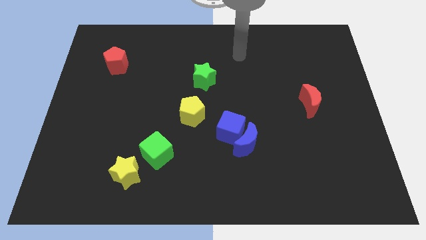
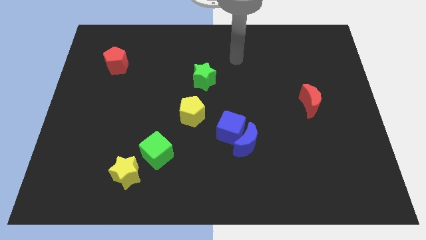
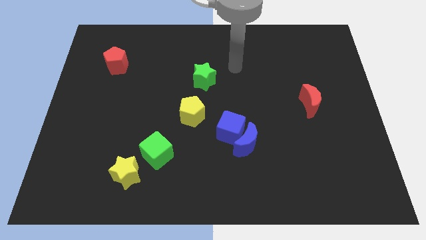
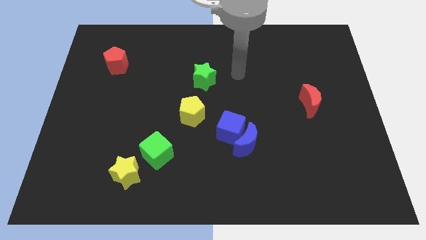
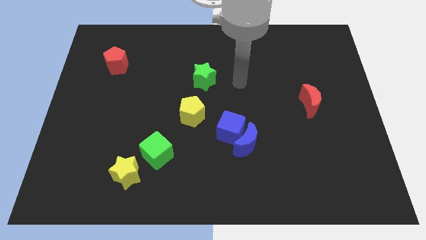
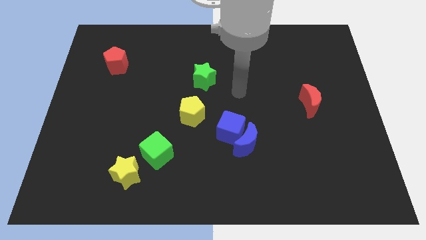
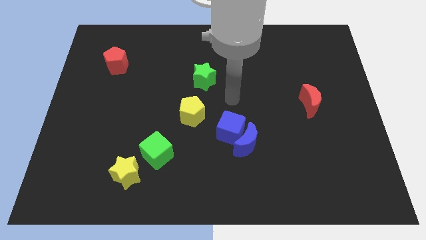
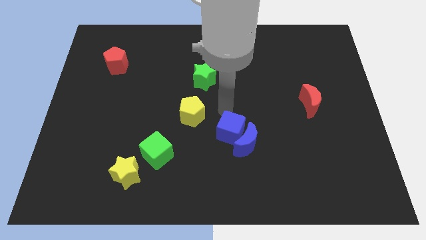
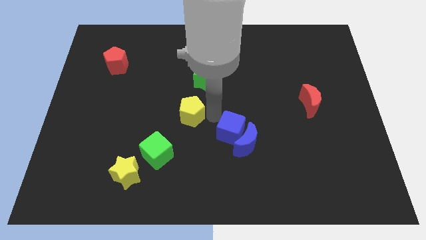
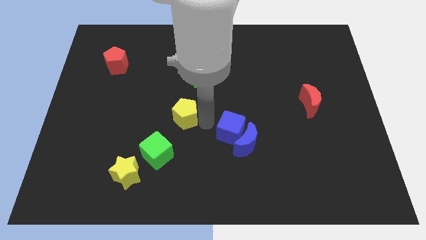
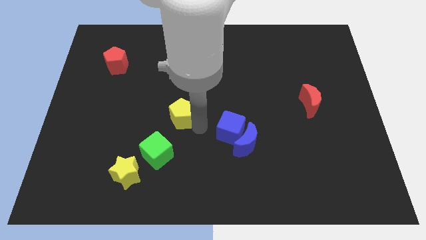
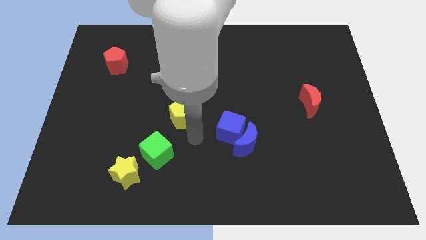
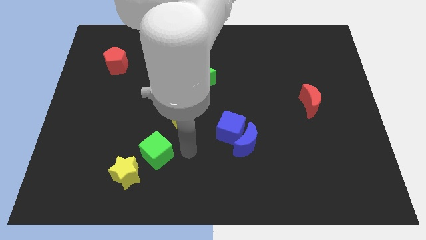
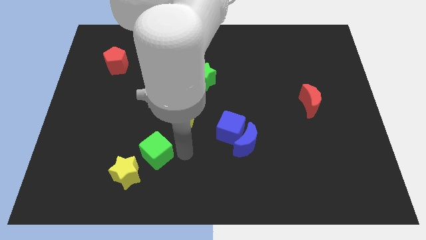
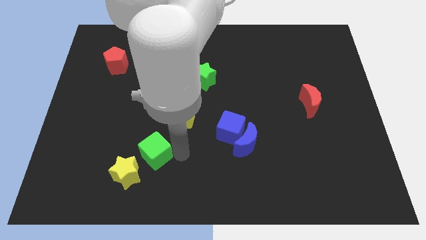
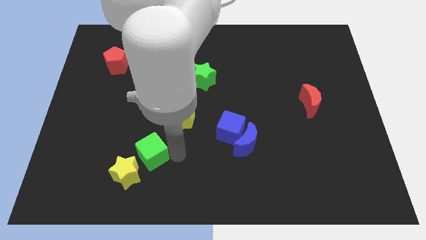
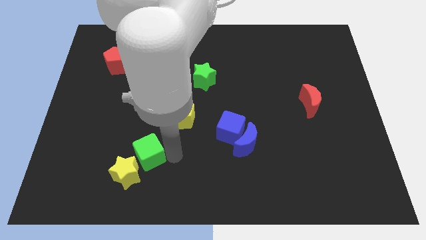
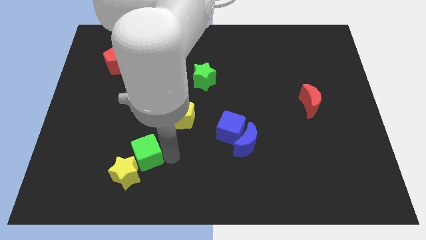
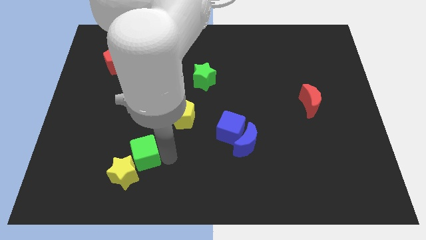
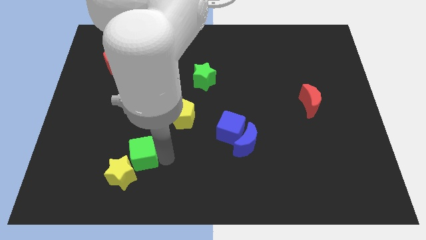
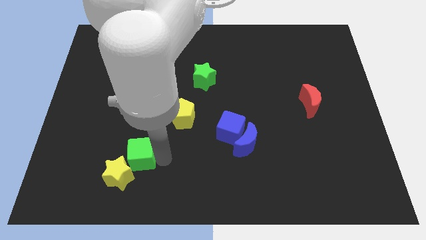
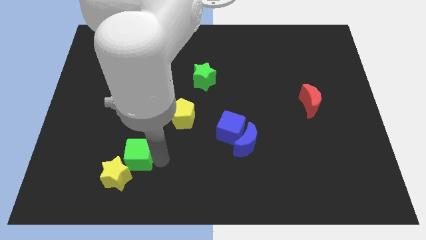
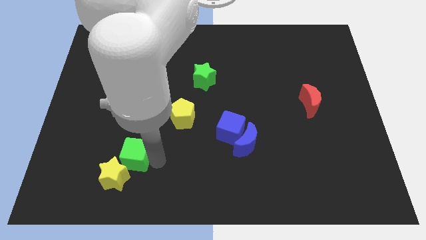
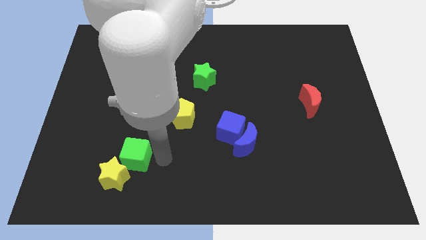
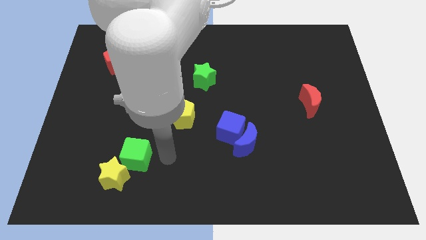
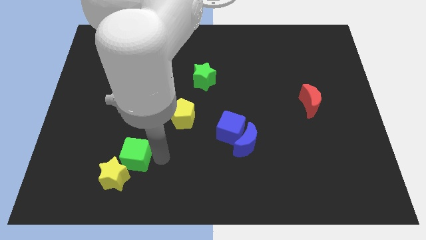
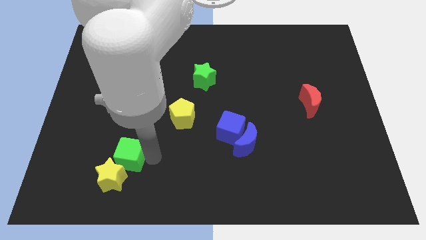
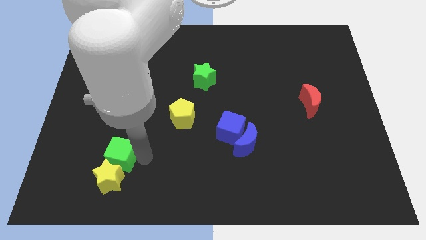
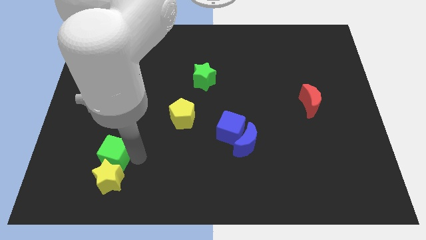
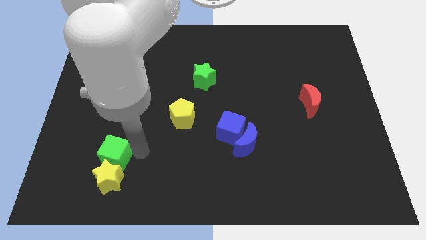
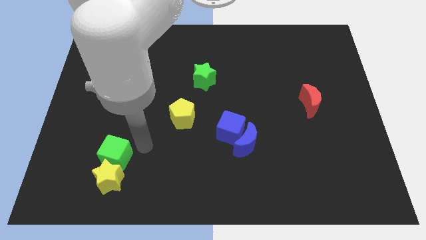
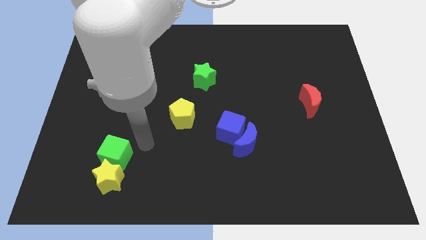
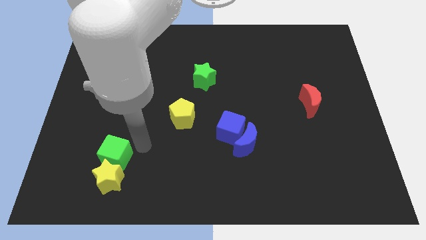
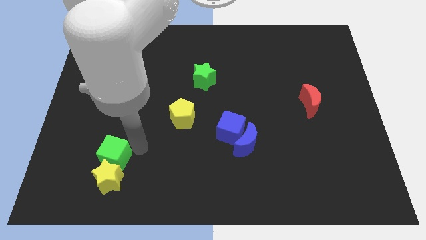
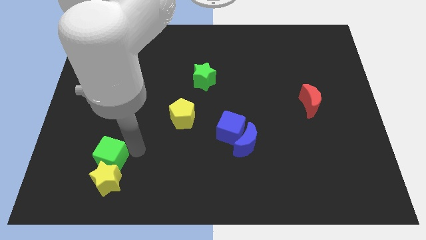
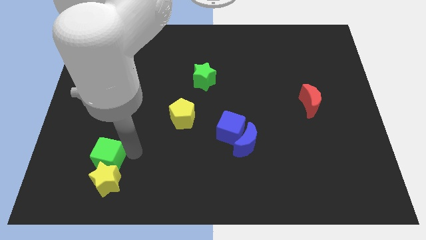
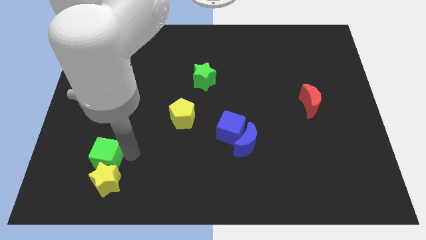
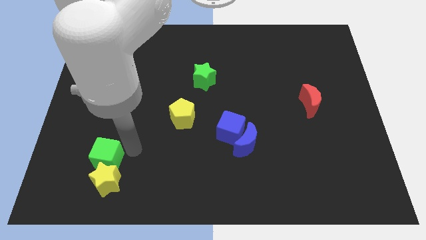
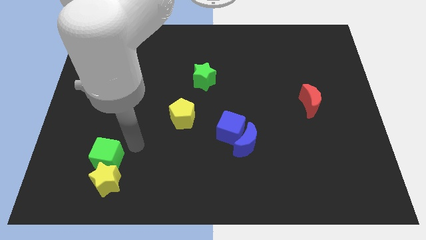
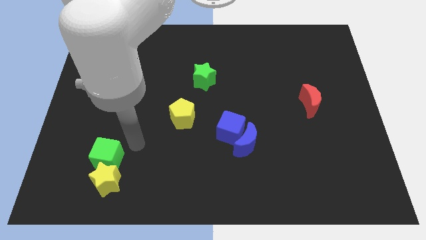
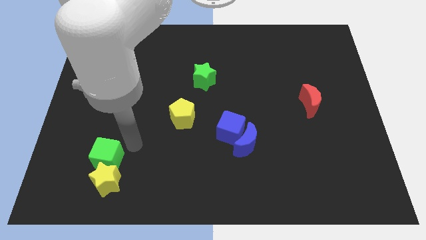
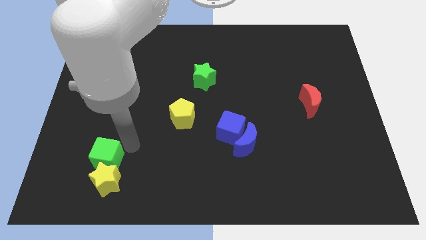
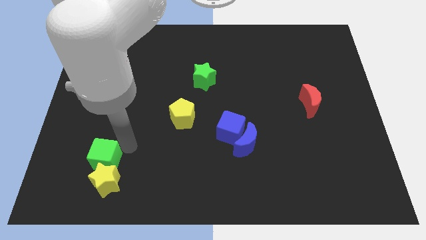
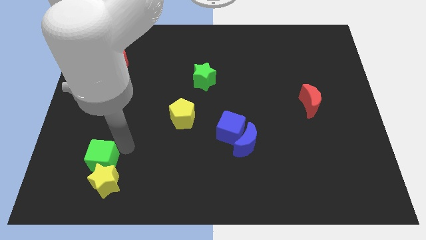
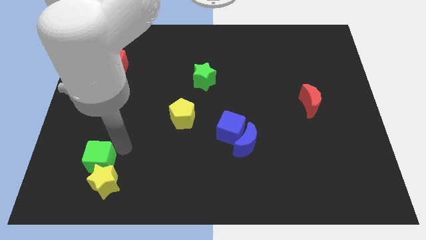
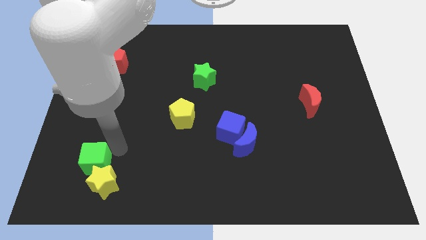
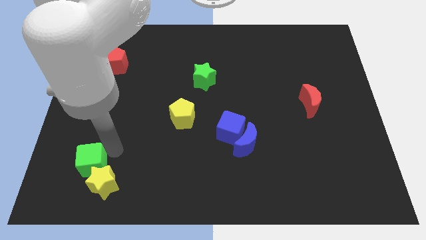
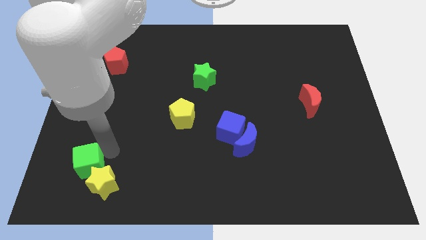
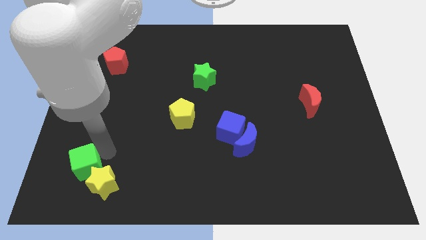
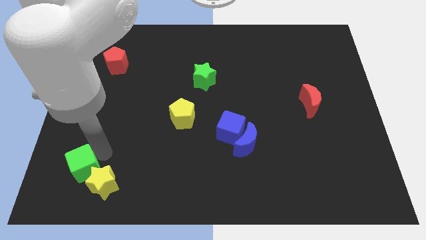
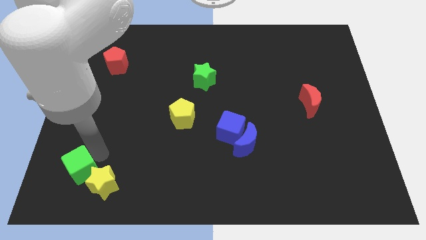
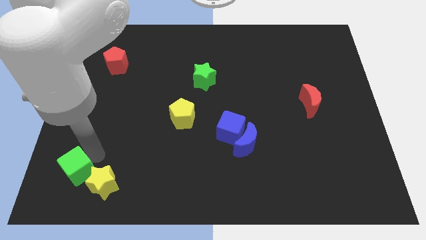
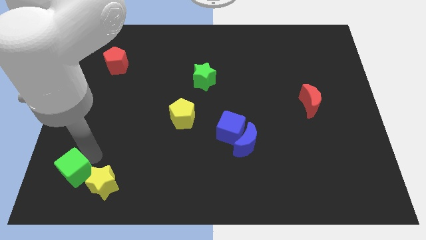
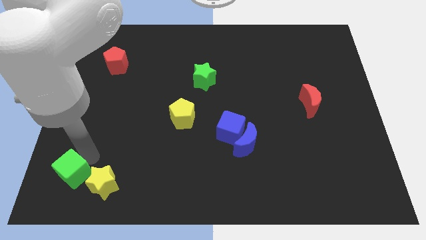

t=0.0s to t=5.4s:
push the green cube to the bottom left corner

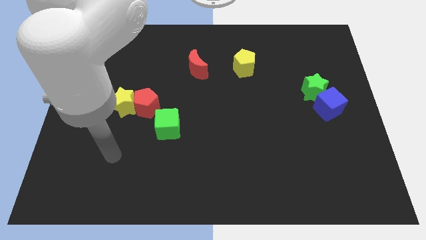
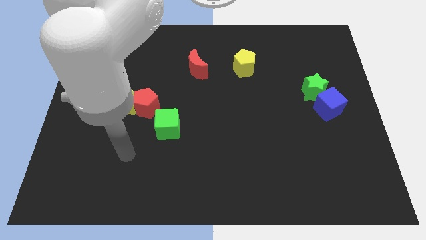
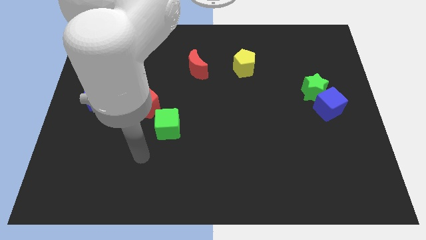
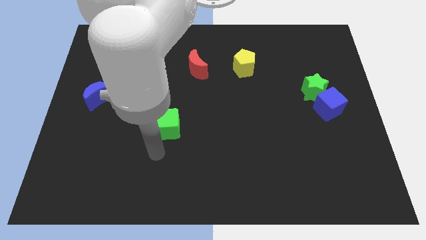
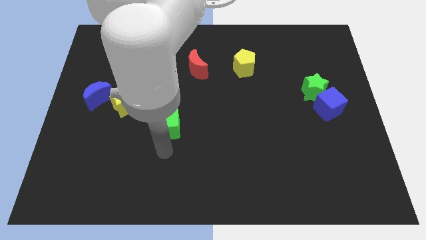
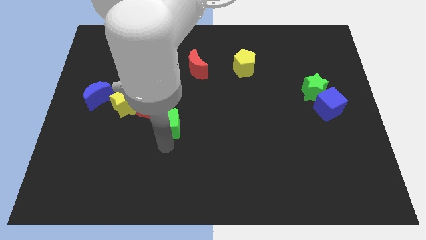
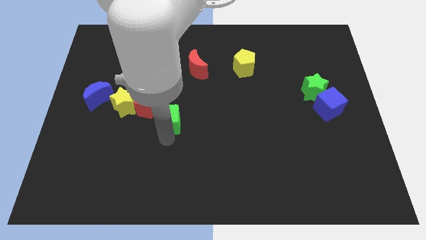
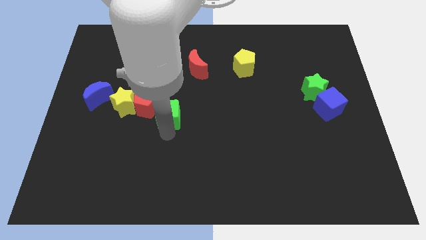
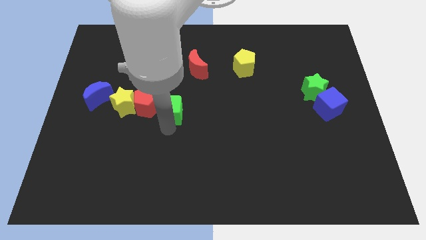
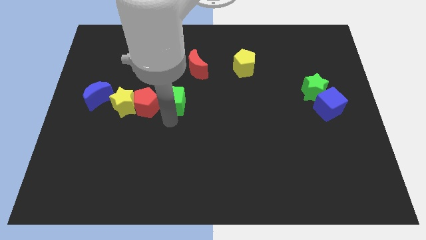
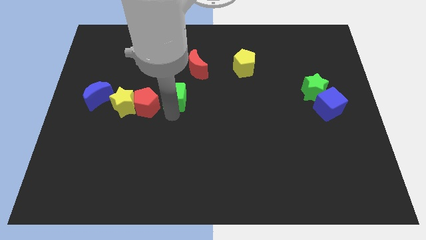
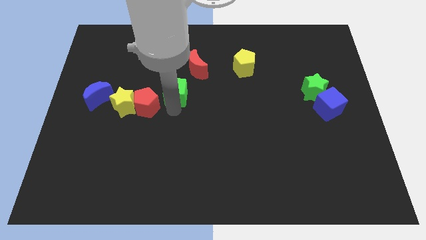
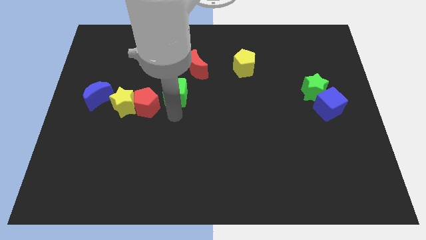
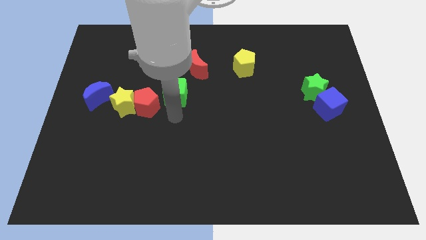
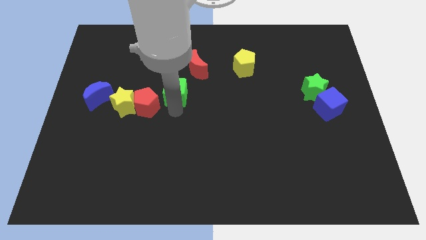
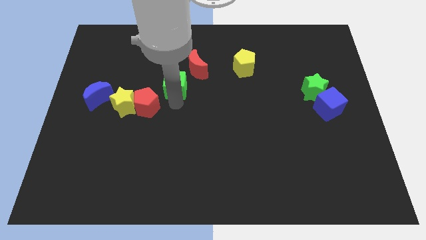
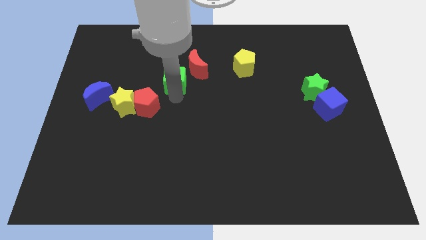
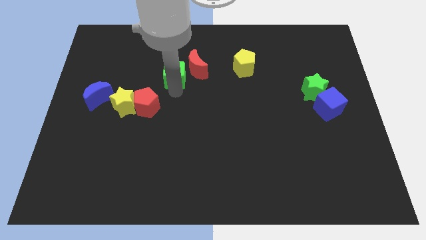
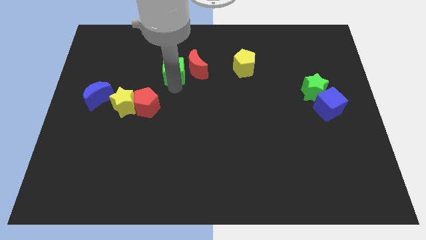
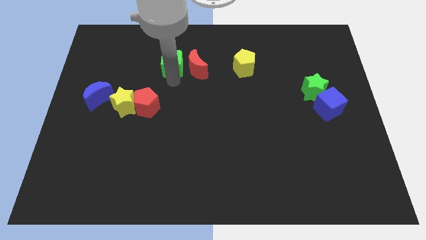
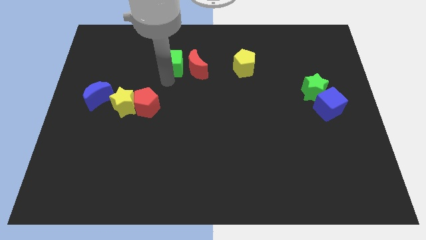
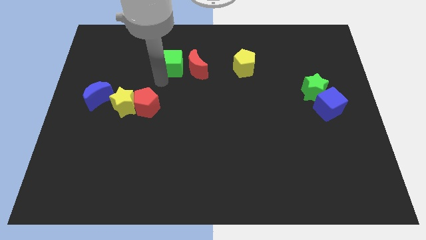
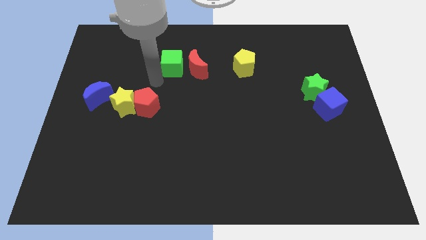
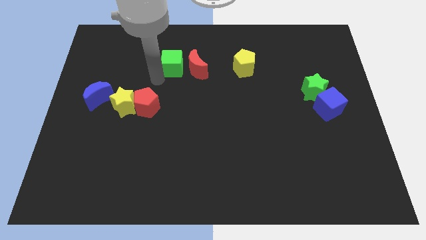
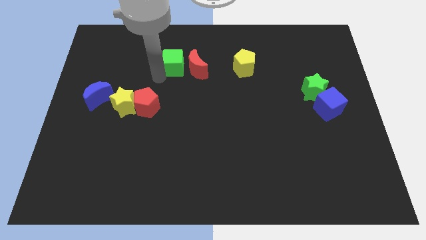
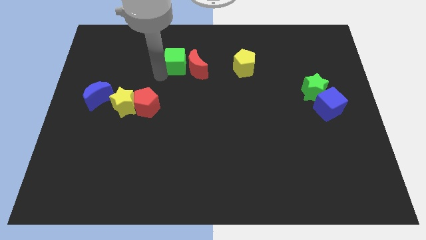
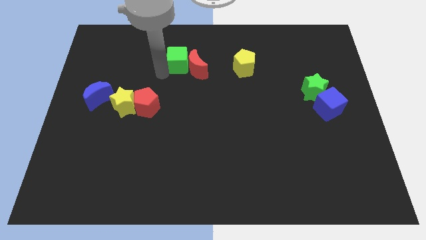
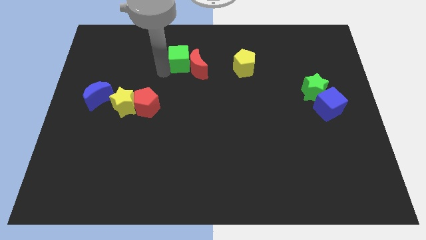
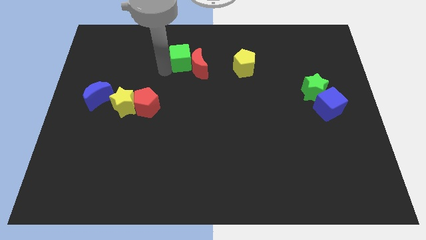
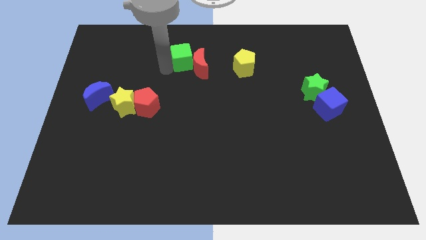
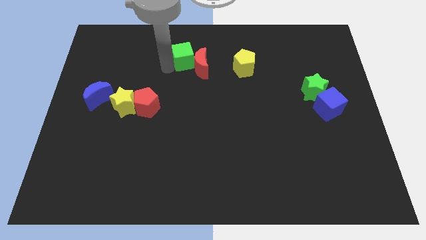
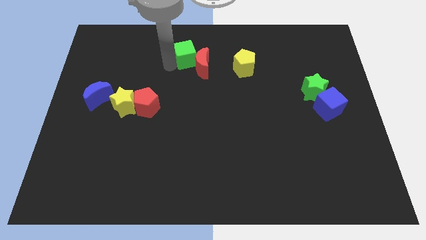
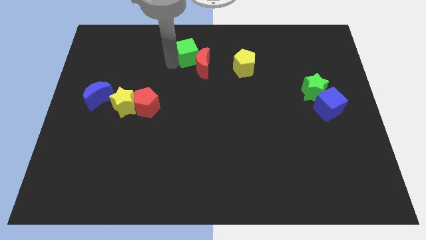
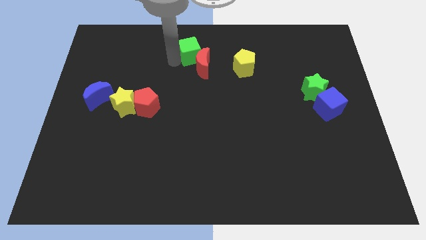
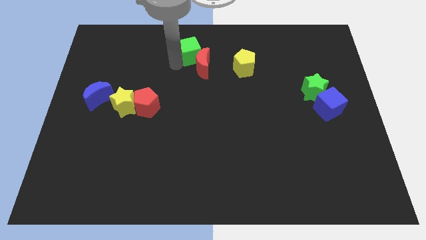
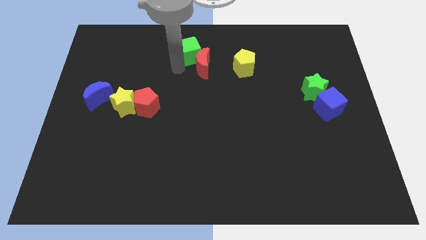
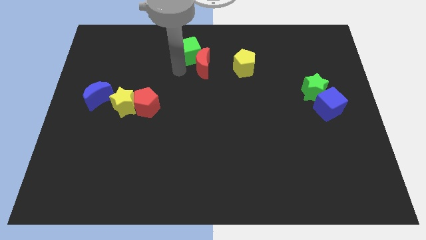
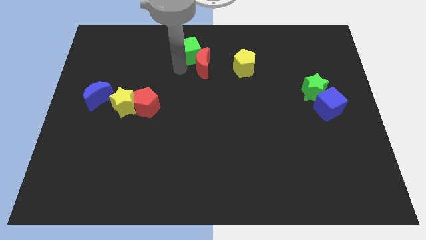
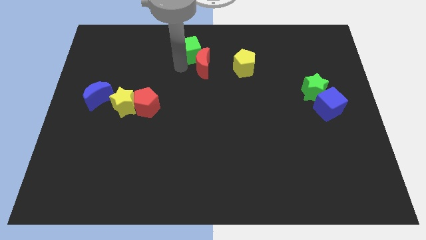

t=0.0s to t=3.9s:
push the green cube to the towards your base
